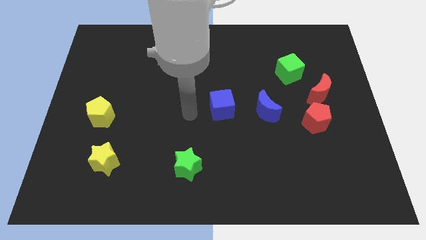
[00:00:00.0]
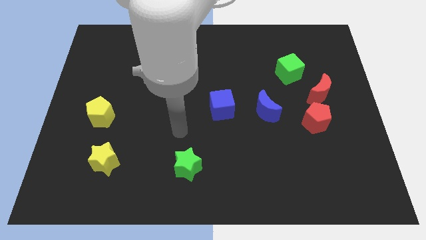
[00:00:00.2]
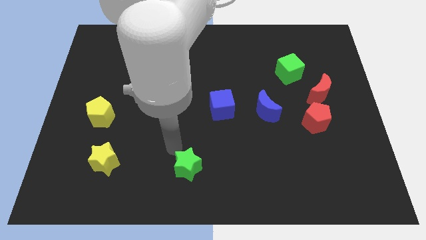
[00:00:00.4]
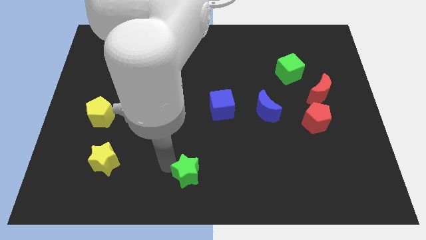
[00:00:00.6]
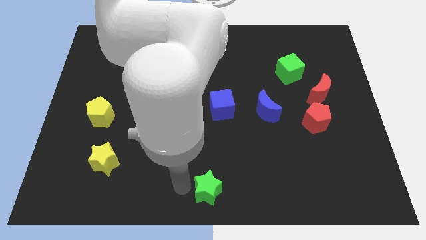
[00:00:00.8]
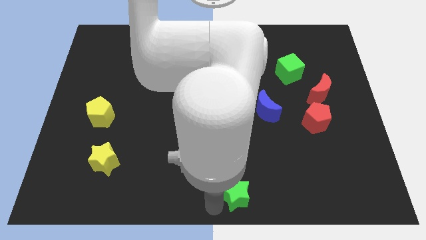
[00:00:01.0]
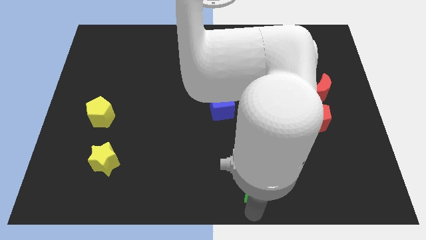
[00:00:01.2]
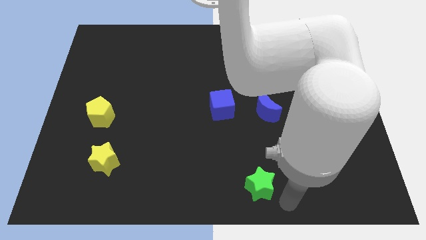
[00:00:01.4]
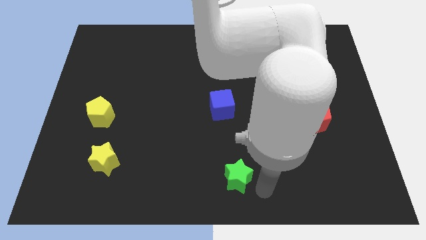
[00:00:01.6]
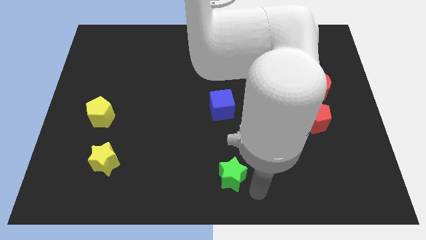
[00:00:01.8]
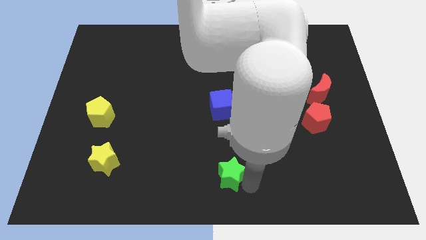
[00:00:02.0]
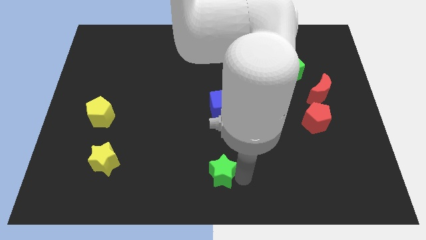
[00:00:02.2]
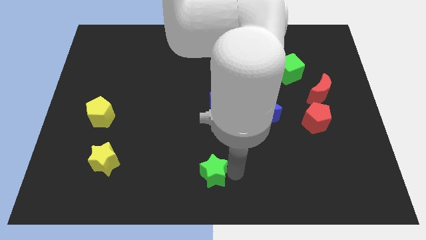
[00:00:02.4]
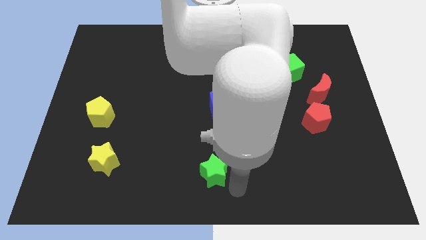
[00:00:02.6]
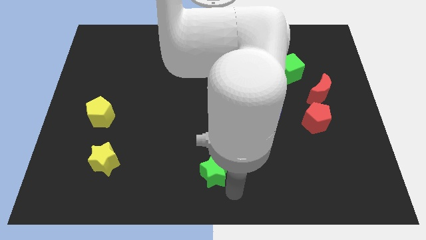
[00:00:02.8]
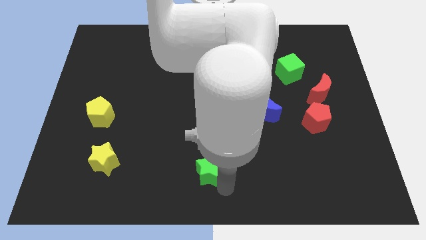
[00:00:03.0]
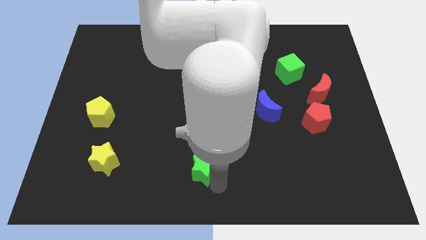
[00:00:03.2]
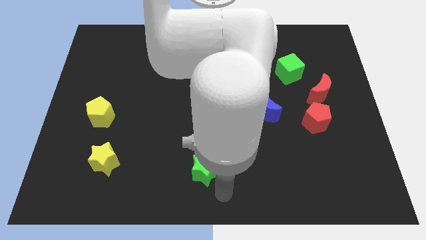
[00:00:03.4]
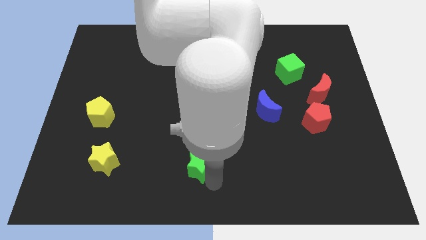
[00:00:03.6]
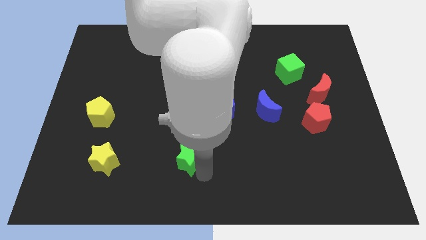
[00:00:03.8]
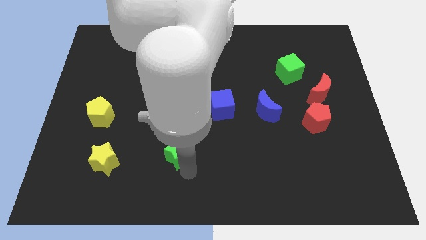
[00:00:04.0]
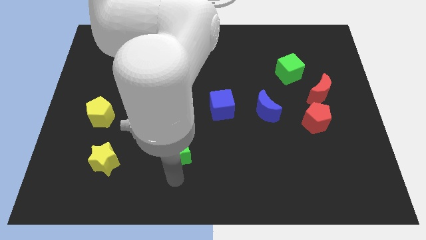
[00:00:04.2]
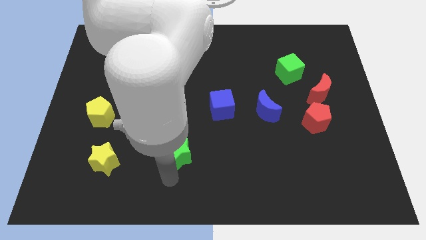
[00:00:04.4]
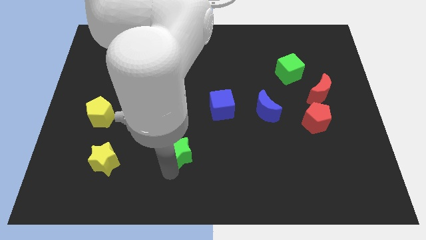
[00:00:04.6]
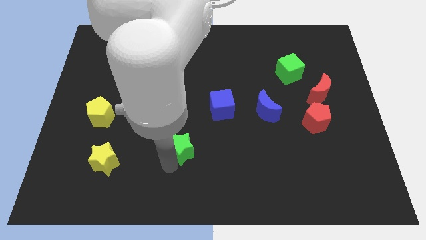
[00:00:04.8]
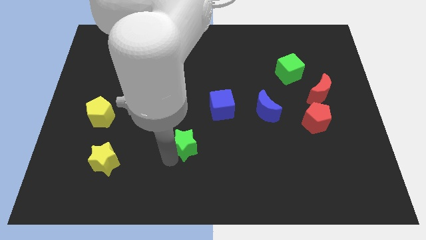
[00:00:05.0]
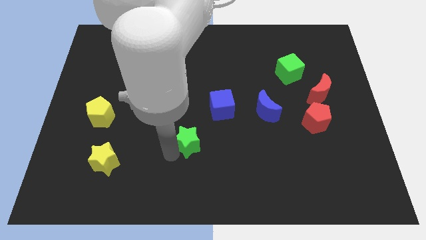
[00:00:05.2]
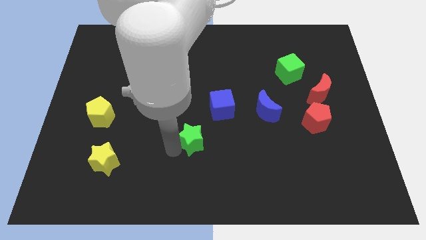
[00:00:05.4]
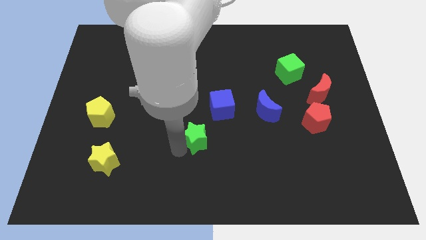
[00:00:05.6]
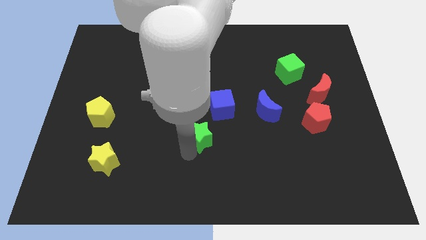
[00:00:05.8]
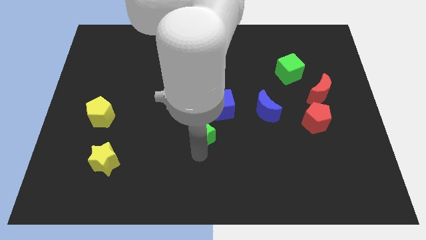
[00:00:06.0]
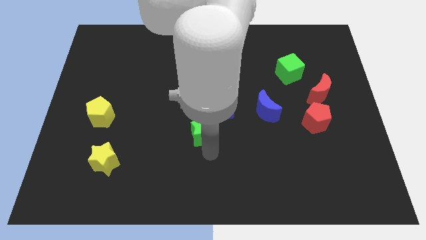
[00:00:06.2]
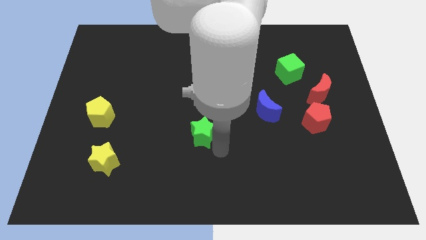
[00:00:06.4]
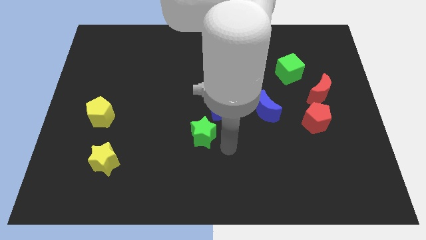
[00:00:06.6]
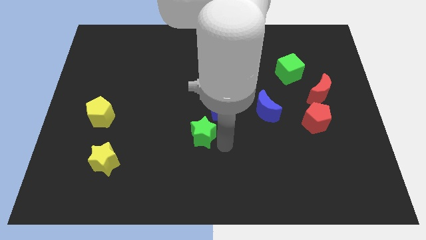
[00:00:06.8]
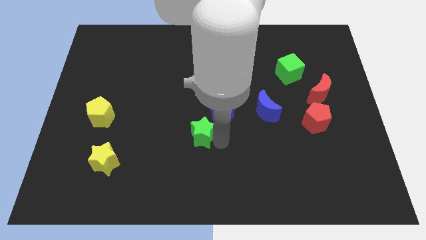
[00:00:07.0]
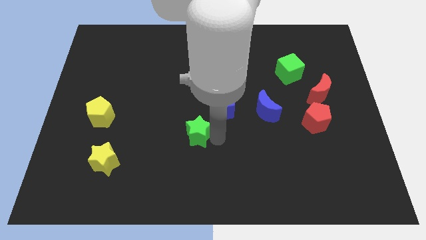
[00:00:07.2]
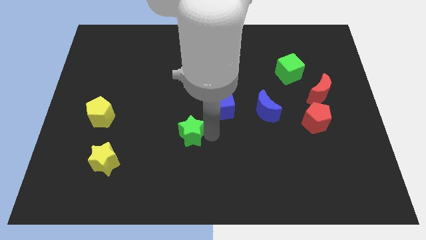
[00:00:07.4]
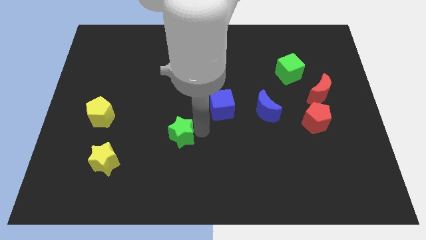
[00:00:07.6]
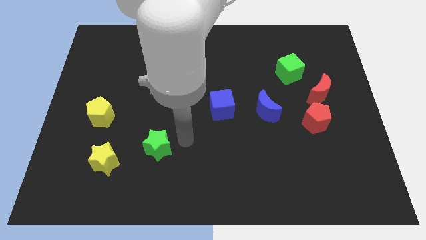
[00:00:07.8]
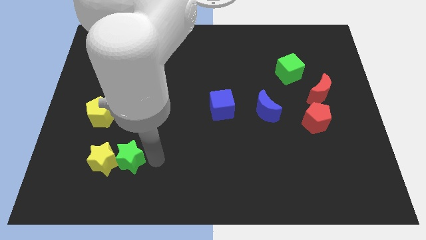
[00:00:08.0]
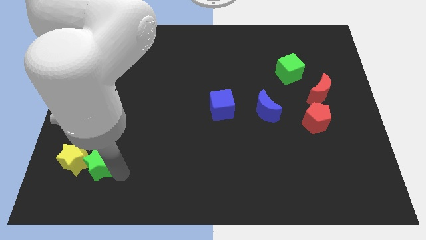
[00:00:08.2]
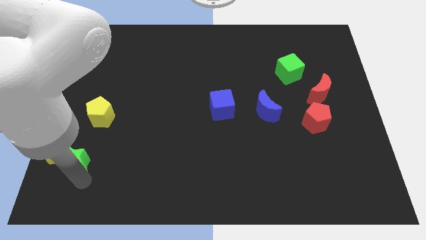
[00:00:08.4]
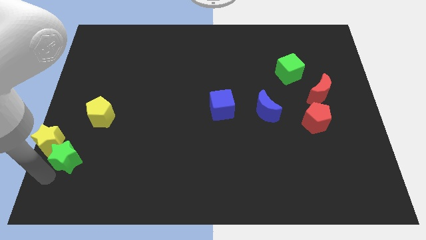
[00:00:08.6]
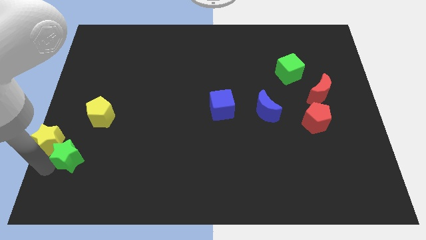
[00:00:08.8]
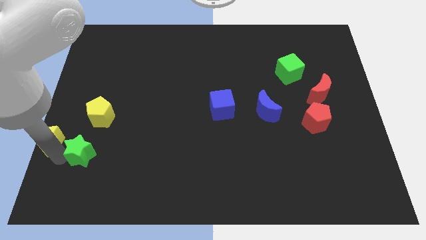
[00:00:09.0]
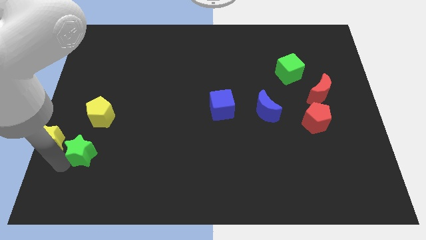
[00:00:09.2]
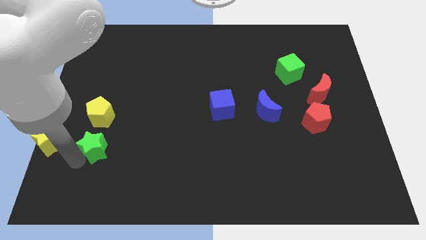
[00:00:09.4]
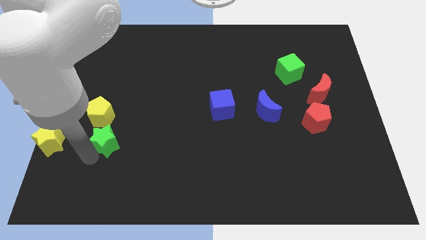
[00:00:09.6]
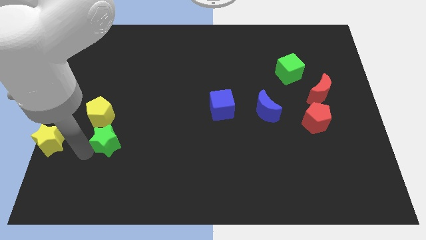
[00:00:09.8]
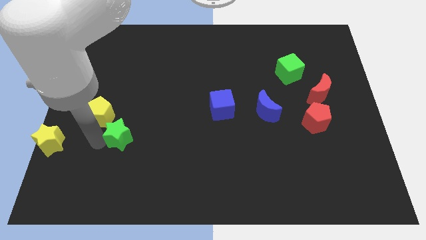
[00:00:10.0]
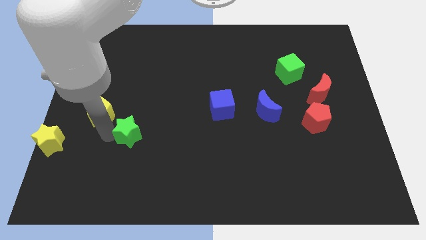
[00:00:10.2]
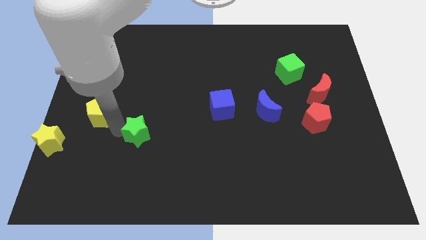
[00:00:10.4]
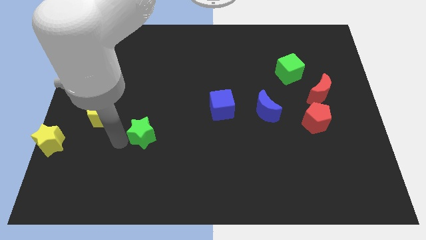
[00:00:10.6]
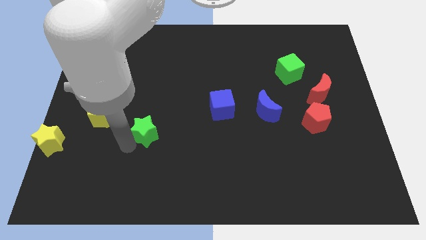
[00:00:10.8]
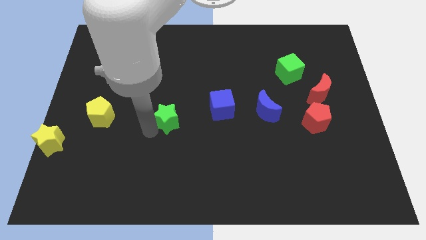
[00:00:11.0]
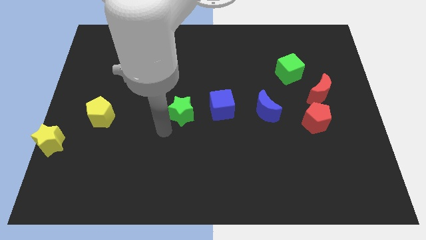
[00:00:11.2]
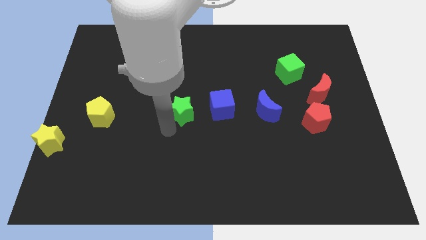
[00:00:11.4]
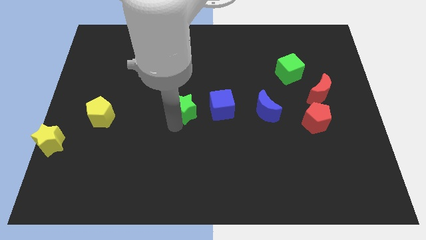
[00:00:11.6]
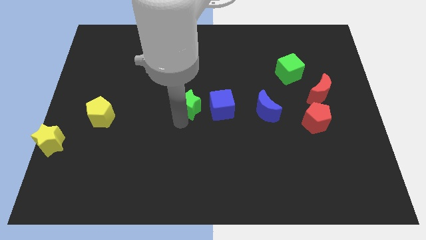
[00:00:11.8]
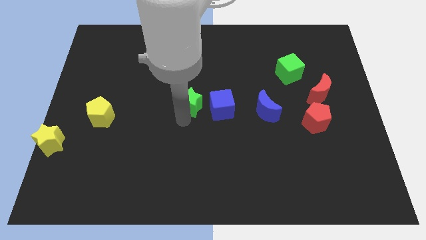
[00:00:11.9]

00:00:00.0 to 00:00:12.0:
push the green star to the top left side of the blue cube

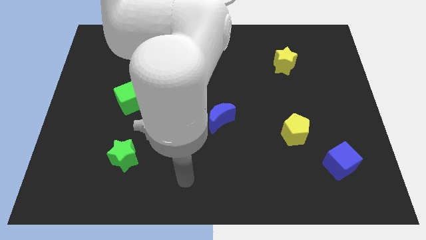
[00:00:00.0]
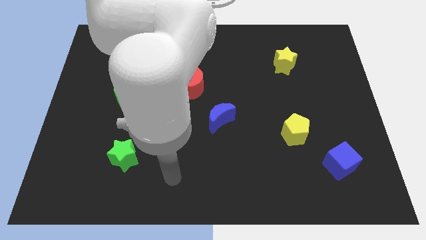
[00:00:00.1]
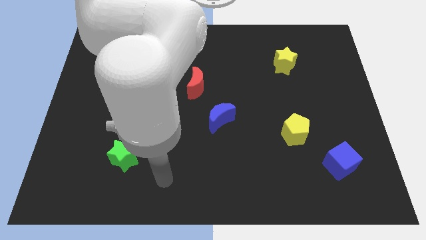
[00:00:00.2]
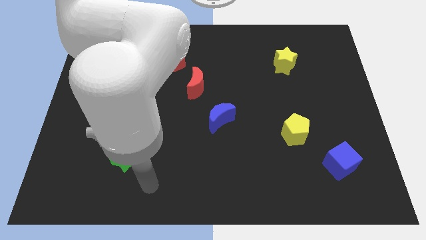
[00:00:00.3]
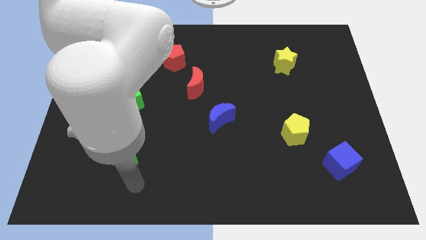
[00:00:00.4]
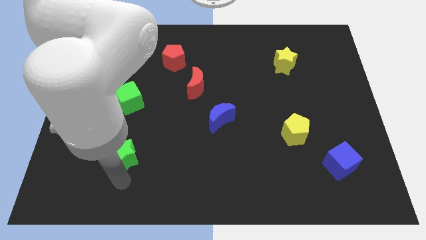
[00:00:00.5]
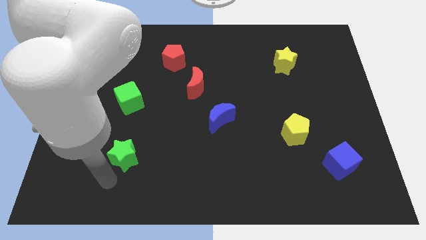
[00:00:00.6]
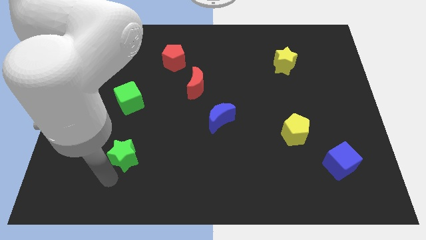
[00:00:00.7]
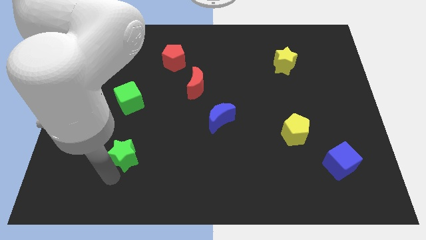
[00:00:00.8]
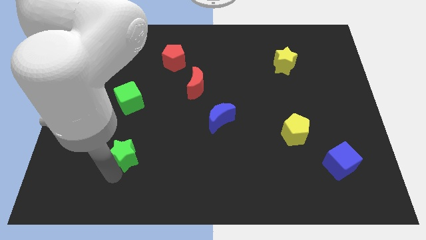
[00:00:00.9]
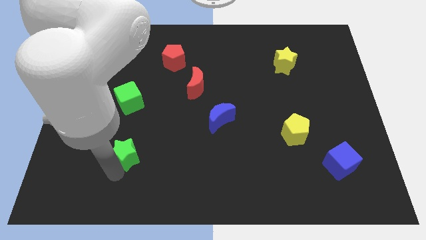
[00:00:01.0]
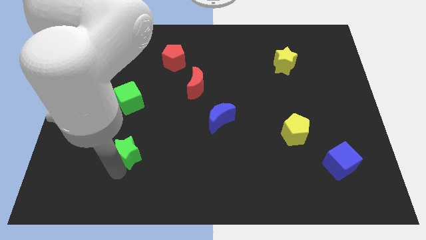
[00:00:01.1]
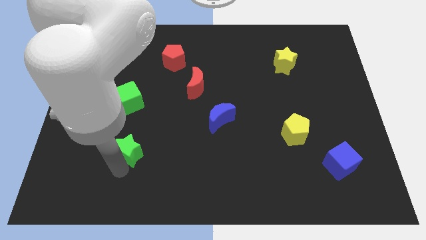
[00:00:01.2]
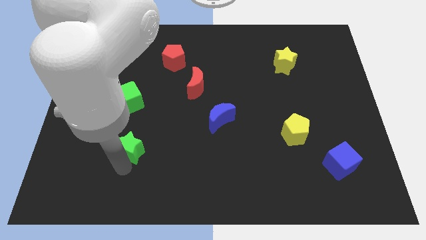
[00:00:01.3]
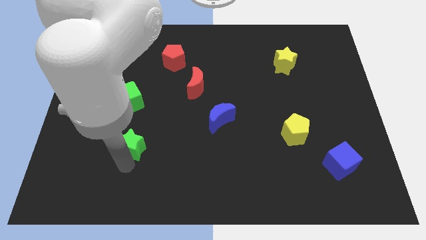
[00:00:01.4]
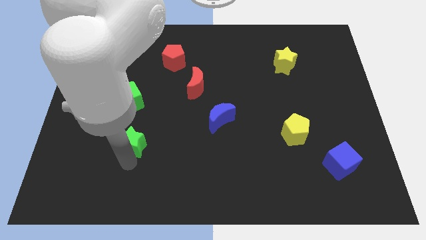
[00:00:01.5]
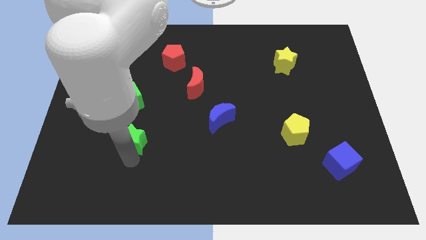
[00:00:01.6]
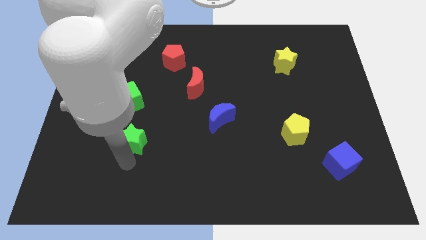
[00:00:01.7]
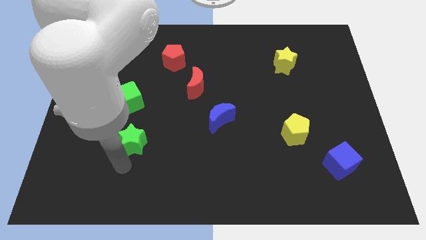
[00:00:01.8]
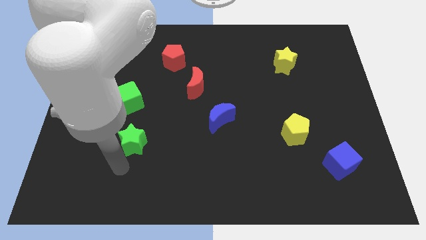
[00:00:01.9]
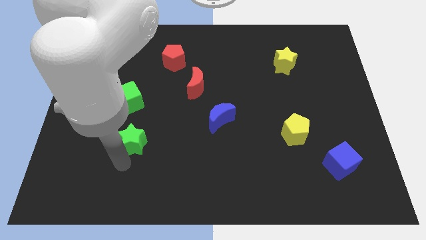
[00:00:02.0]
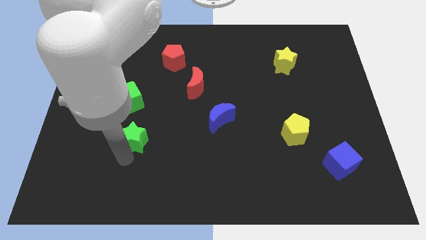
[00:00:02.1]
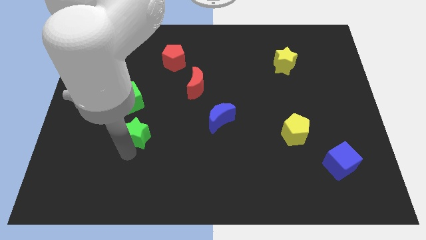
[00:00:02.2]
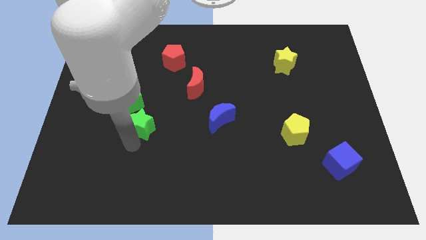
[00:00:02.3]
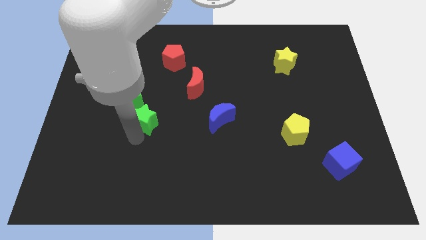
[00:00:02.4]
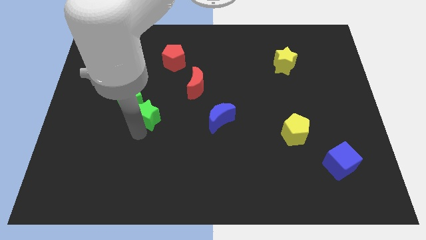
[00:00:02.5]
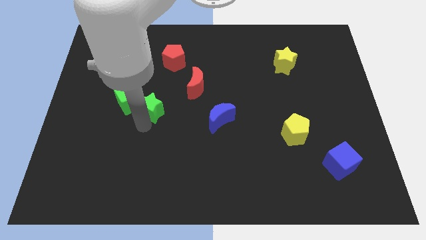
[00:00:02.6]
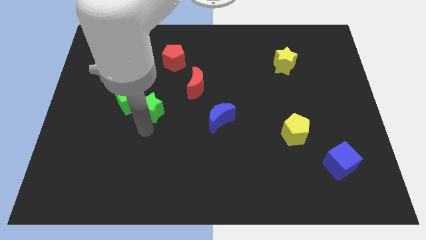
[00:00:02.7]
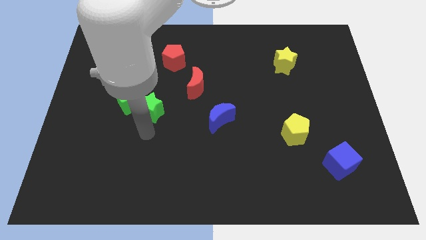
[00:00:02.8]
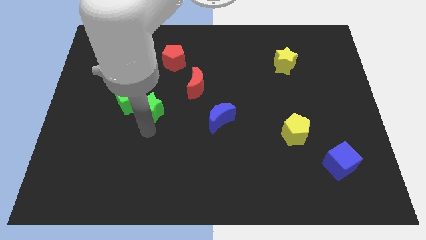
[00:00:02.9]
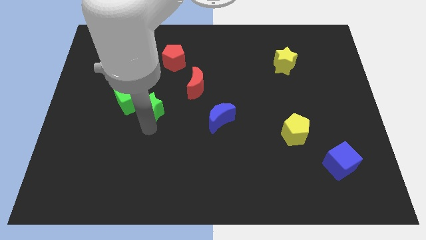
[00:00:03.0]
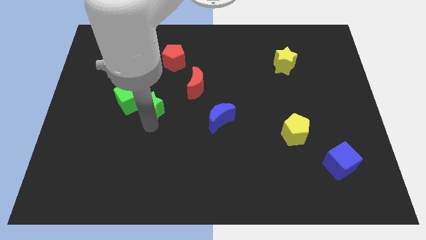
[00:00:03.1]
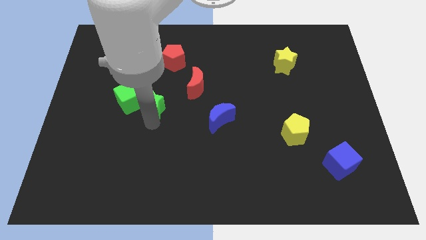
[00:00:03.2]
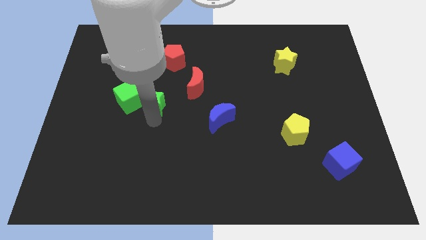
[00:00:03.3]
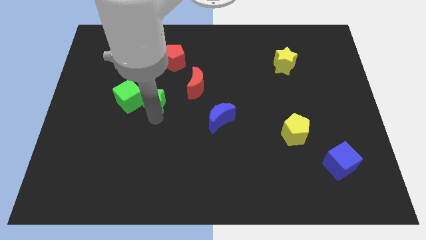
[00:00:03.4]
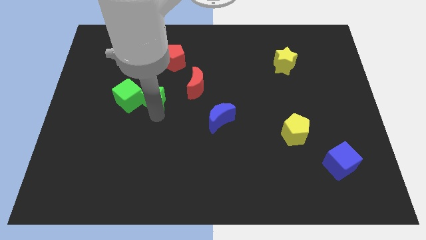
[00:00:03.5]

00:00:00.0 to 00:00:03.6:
slide the green star to the left side of the red moon
